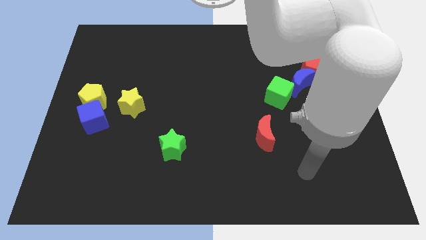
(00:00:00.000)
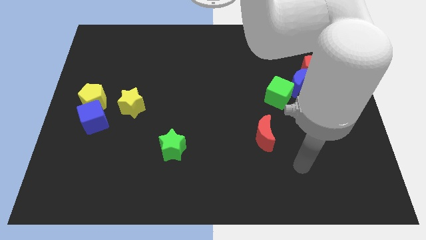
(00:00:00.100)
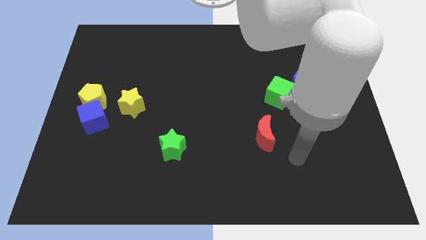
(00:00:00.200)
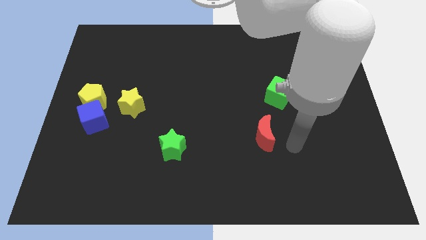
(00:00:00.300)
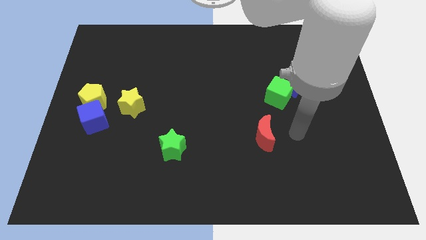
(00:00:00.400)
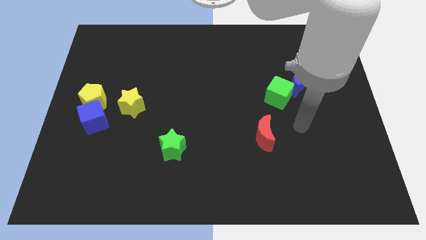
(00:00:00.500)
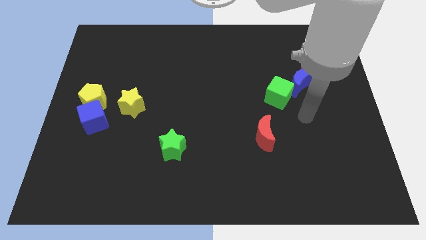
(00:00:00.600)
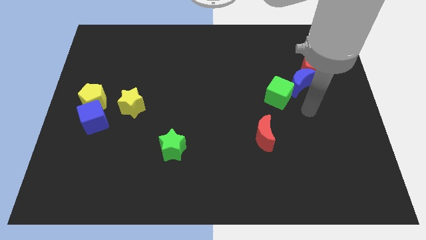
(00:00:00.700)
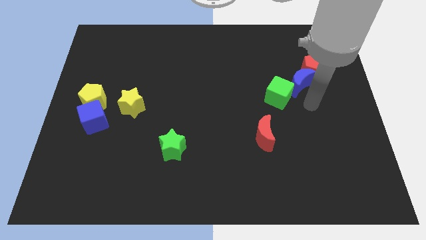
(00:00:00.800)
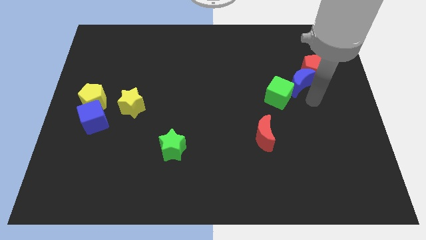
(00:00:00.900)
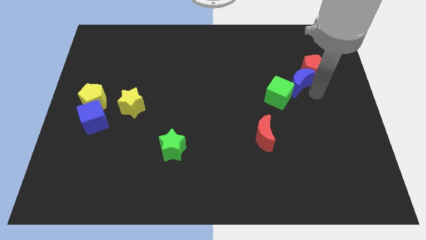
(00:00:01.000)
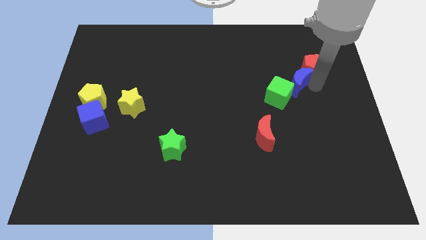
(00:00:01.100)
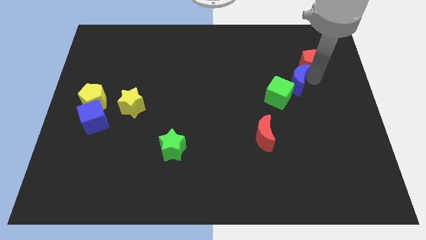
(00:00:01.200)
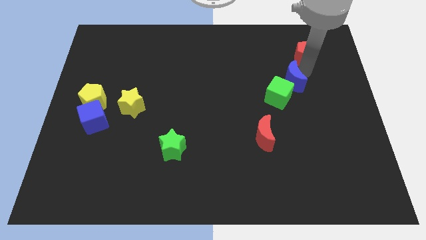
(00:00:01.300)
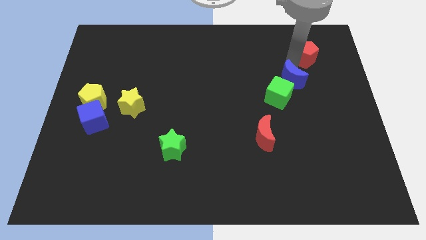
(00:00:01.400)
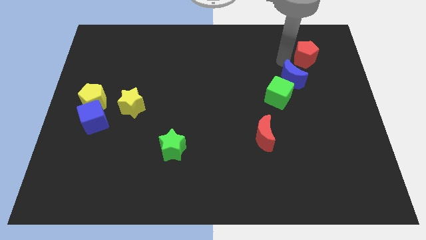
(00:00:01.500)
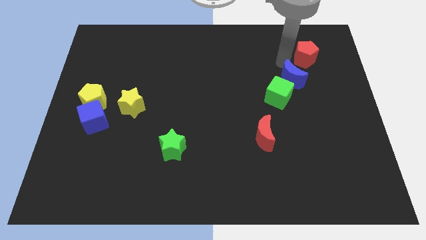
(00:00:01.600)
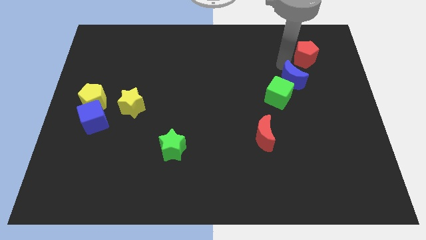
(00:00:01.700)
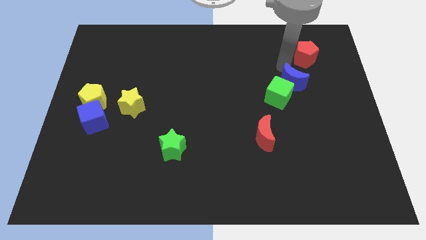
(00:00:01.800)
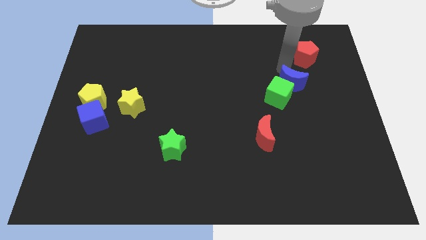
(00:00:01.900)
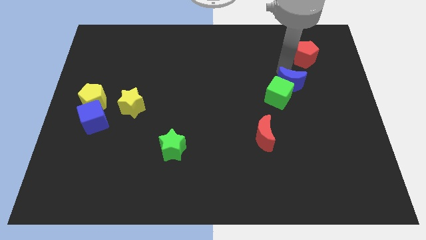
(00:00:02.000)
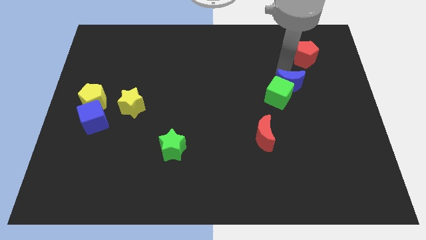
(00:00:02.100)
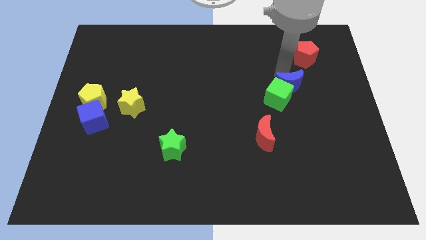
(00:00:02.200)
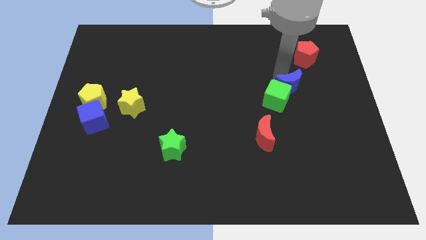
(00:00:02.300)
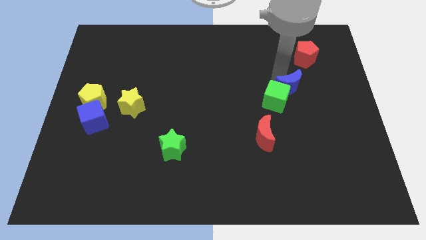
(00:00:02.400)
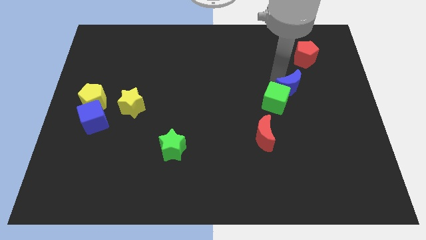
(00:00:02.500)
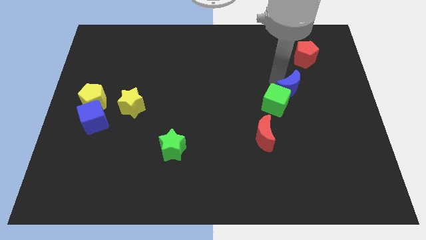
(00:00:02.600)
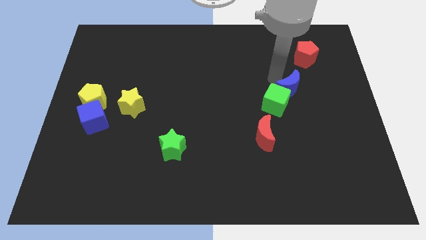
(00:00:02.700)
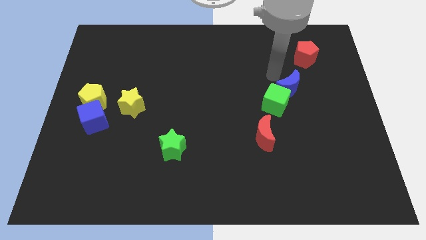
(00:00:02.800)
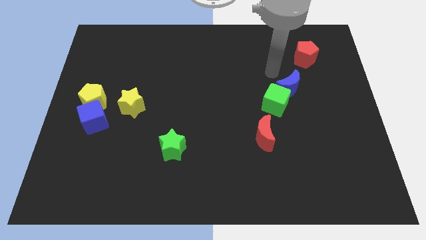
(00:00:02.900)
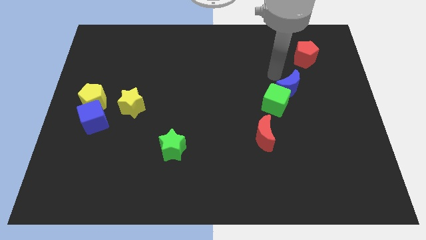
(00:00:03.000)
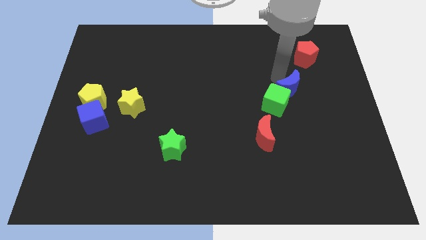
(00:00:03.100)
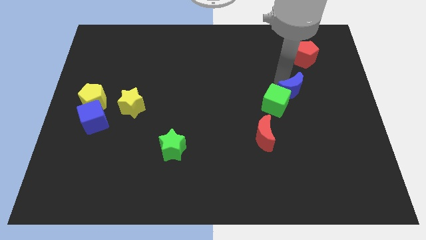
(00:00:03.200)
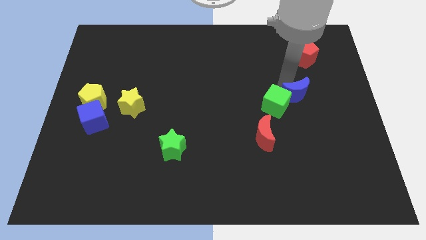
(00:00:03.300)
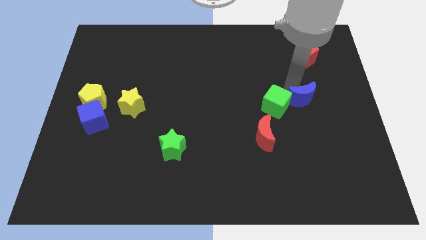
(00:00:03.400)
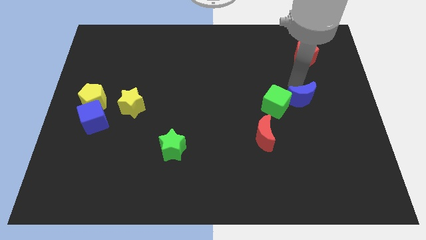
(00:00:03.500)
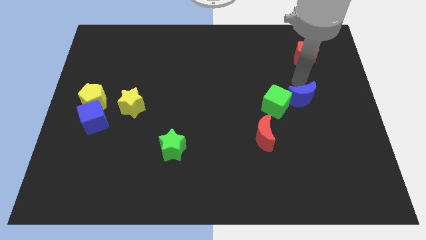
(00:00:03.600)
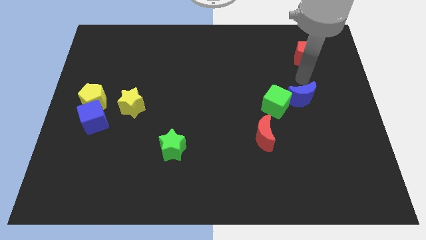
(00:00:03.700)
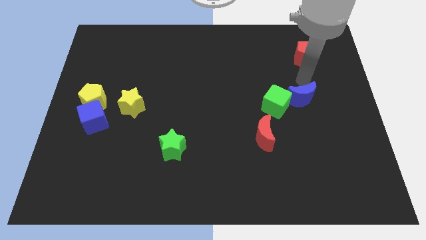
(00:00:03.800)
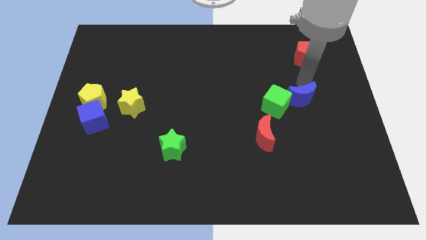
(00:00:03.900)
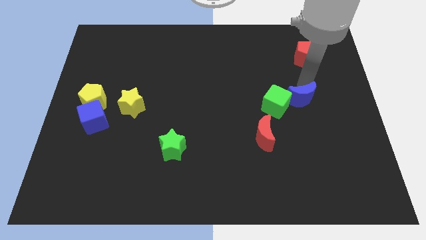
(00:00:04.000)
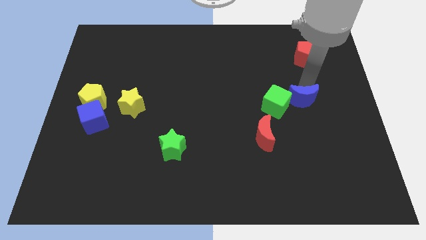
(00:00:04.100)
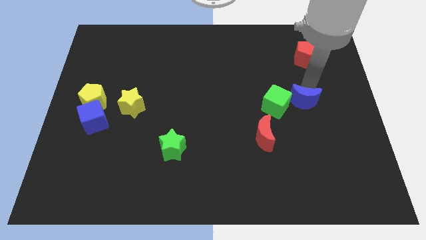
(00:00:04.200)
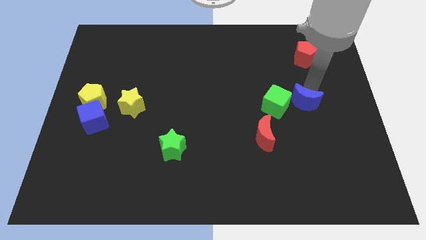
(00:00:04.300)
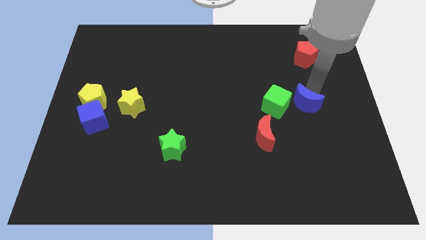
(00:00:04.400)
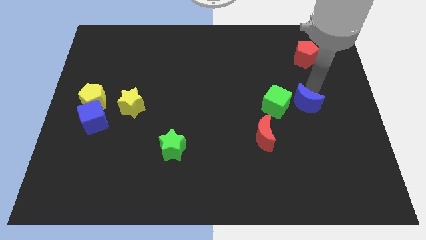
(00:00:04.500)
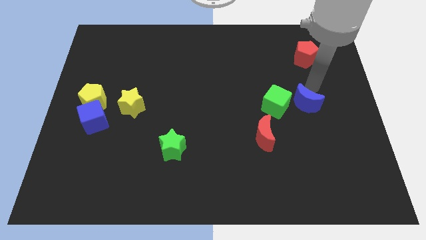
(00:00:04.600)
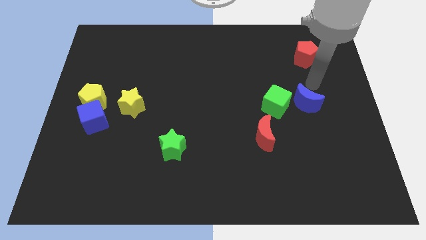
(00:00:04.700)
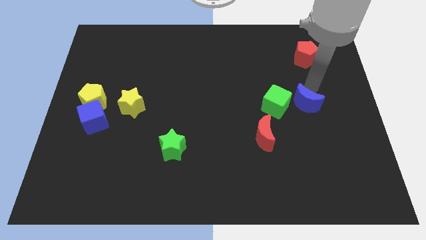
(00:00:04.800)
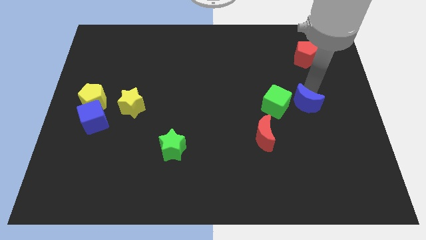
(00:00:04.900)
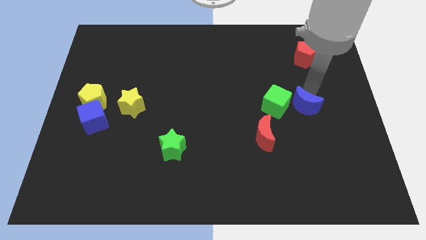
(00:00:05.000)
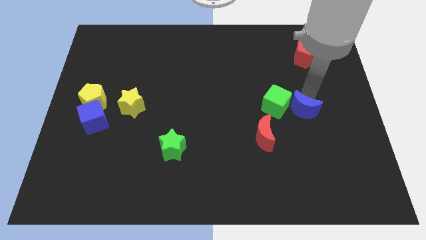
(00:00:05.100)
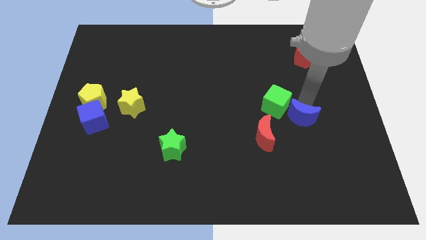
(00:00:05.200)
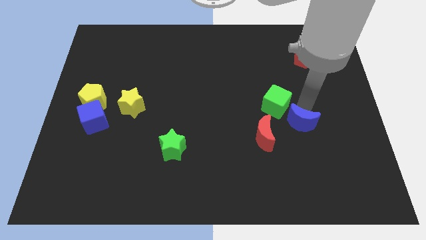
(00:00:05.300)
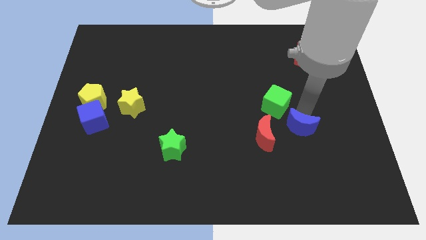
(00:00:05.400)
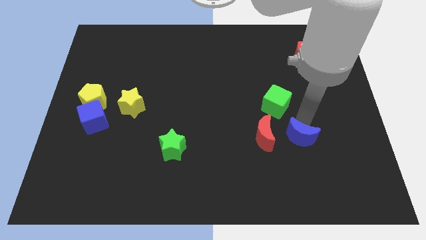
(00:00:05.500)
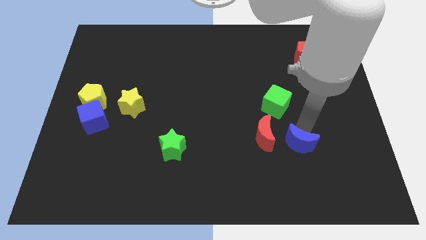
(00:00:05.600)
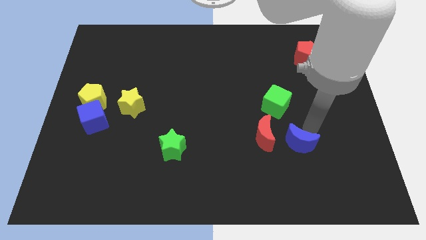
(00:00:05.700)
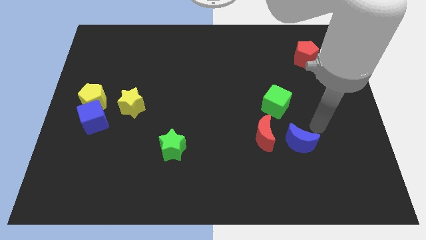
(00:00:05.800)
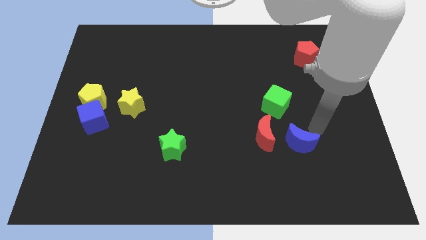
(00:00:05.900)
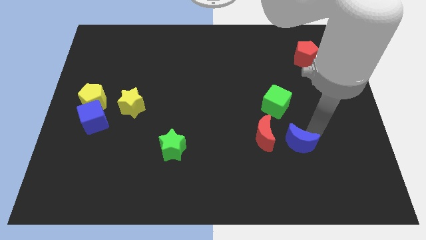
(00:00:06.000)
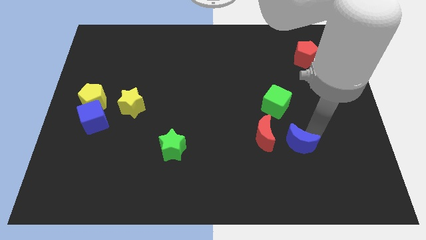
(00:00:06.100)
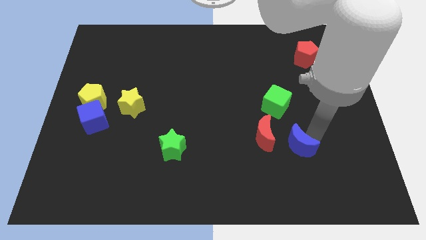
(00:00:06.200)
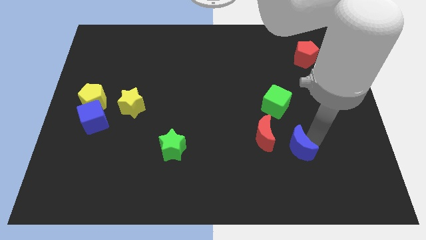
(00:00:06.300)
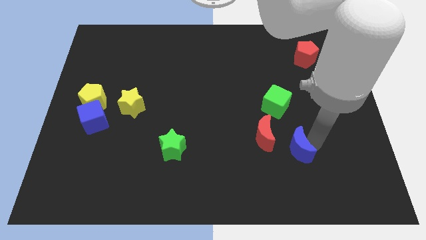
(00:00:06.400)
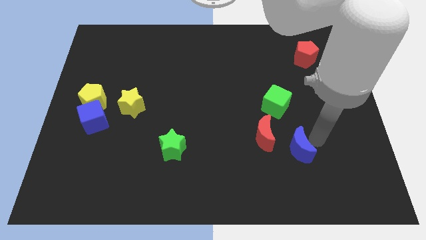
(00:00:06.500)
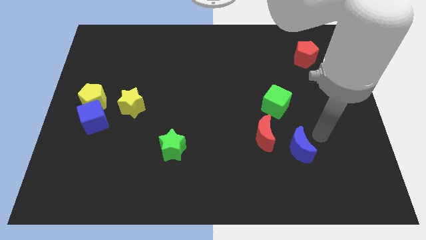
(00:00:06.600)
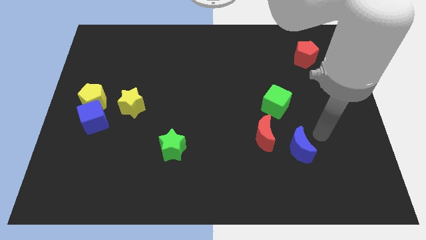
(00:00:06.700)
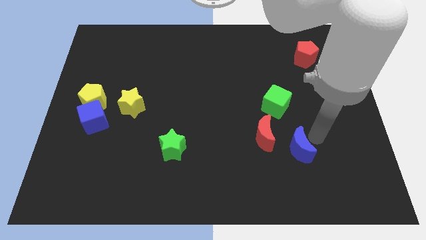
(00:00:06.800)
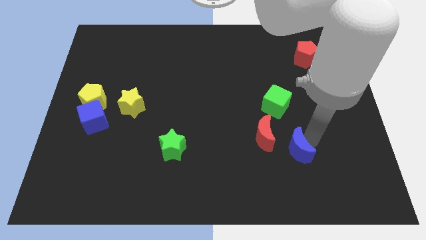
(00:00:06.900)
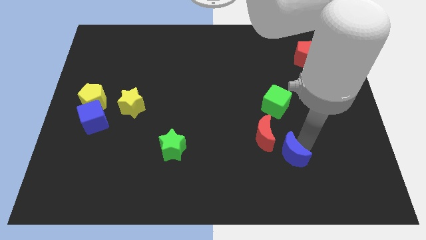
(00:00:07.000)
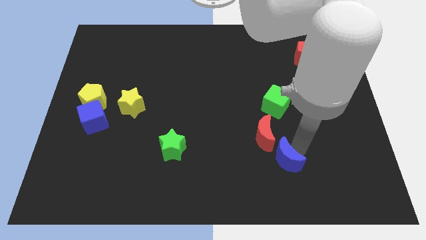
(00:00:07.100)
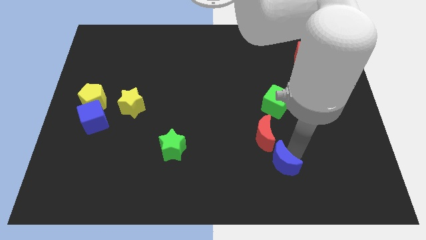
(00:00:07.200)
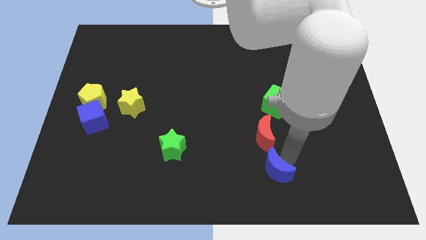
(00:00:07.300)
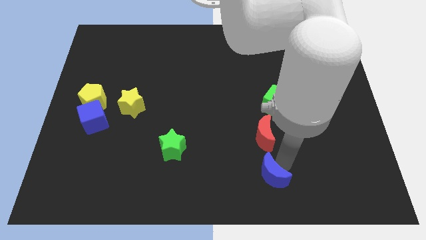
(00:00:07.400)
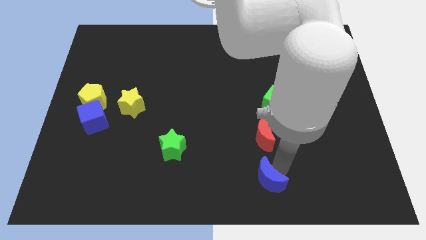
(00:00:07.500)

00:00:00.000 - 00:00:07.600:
slide the blue moon to the bottom side
